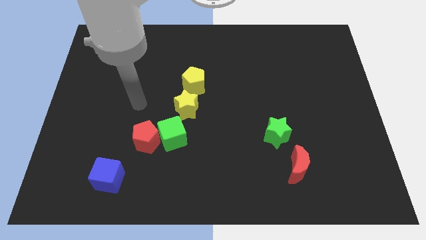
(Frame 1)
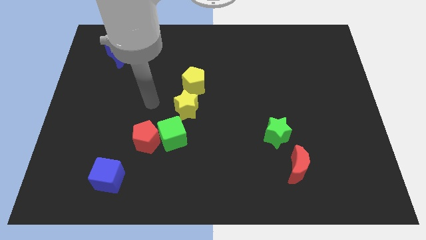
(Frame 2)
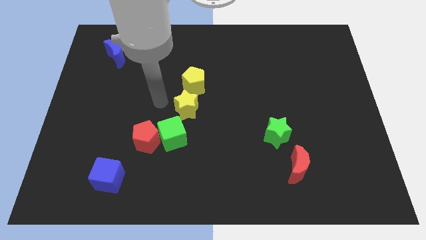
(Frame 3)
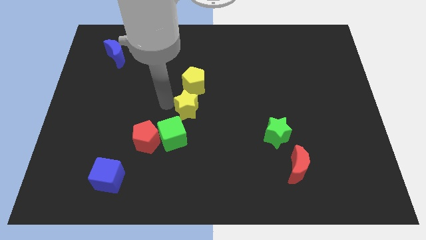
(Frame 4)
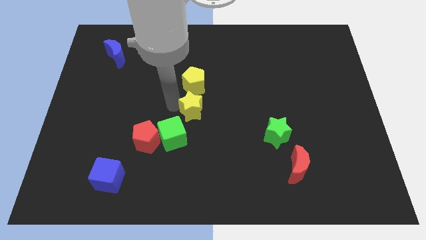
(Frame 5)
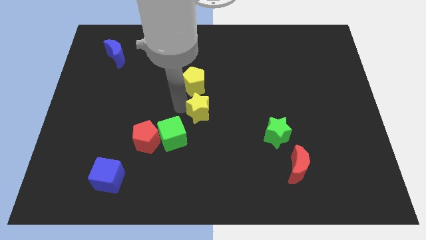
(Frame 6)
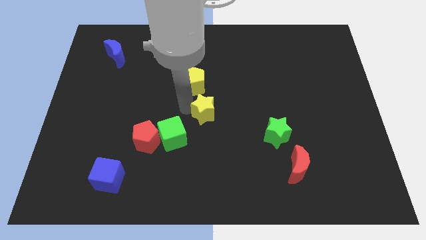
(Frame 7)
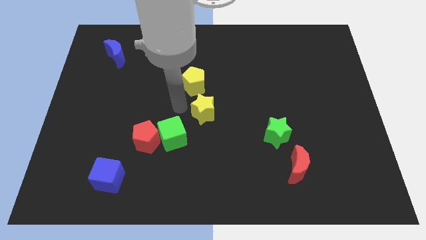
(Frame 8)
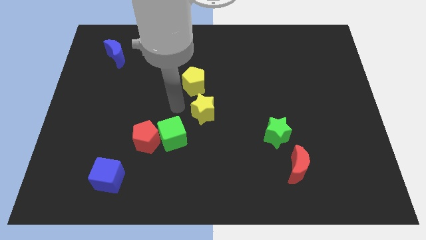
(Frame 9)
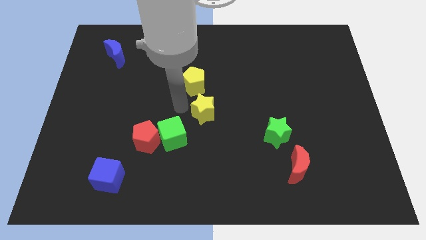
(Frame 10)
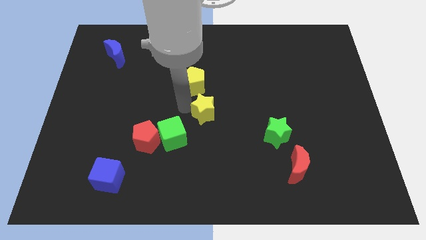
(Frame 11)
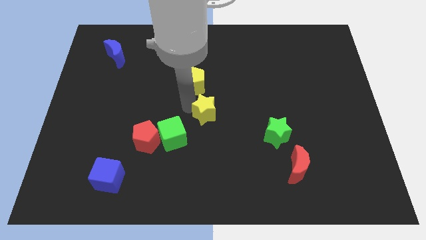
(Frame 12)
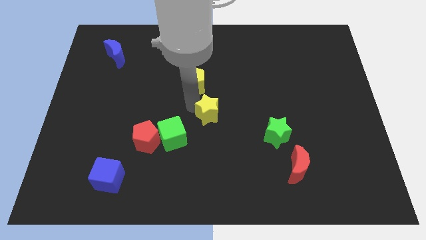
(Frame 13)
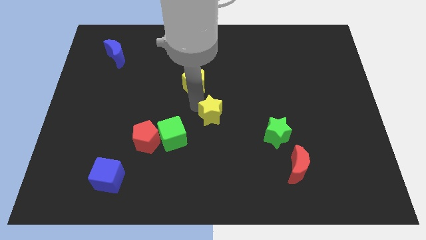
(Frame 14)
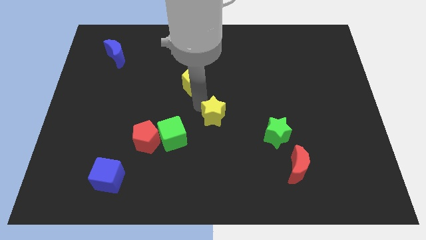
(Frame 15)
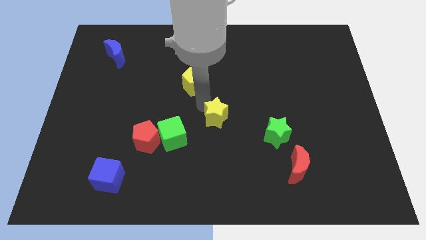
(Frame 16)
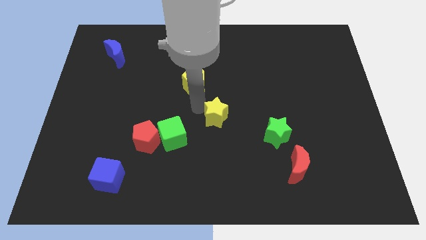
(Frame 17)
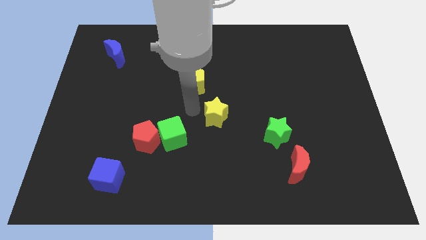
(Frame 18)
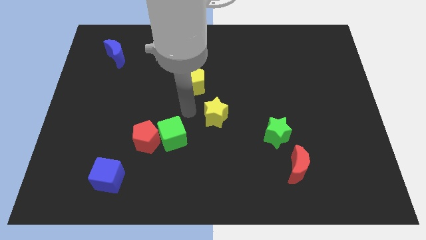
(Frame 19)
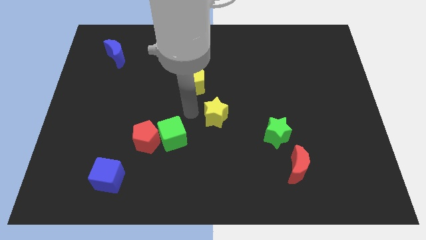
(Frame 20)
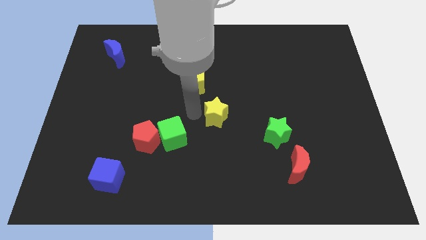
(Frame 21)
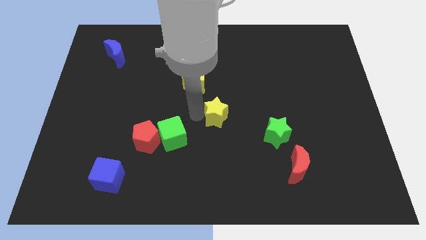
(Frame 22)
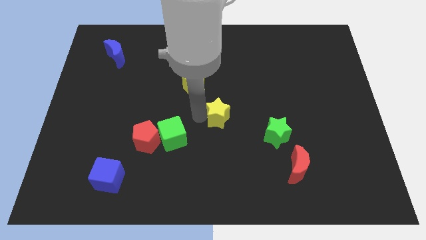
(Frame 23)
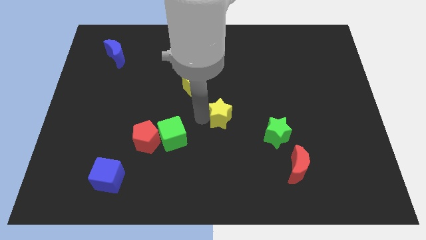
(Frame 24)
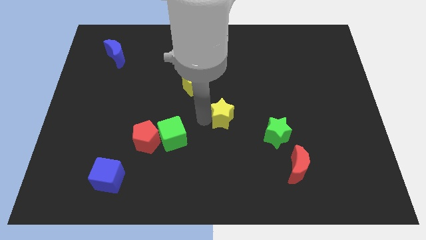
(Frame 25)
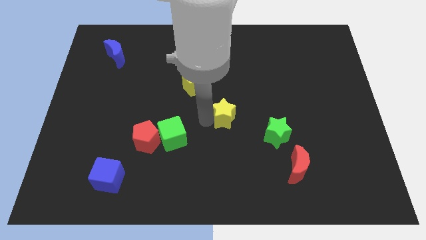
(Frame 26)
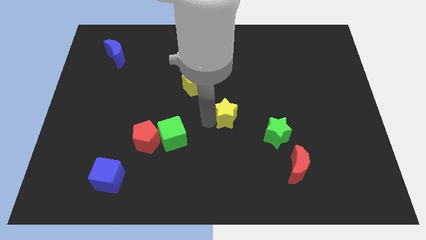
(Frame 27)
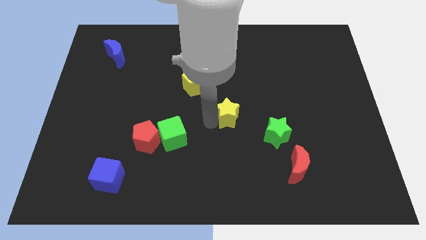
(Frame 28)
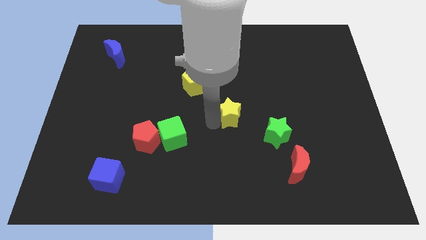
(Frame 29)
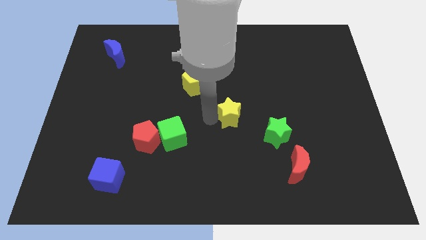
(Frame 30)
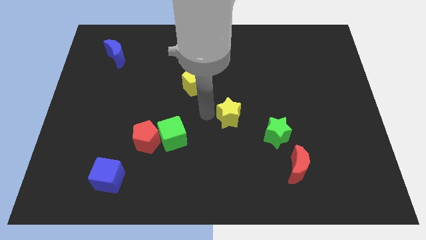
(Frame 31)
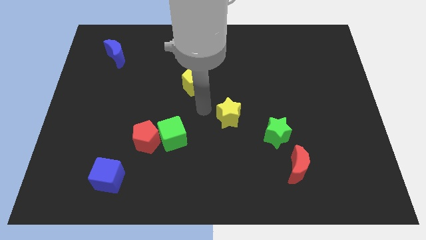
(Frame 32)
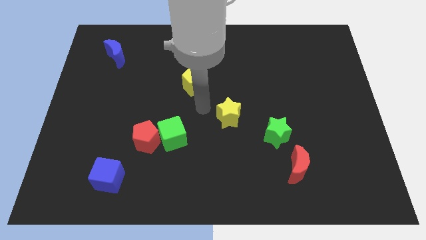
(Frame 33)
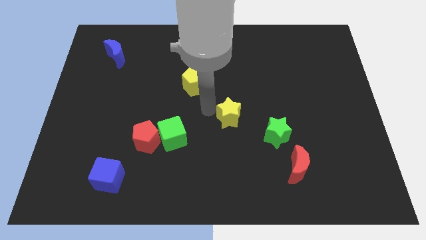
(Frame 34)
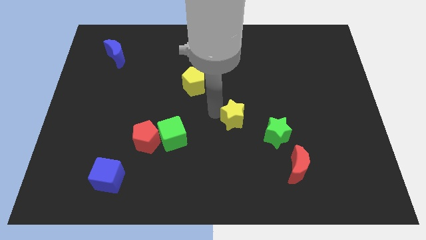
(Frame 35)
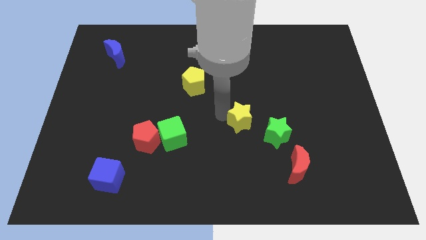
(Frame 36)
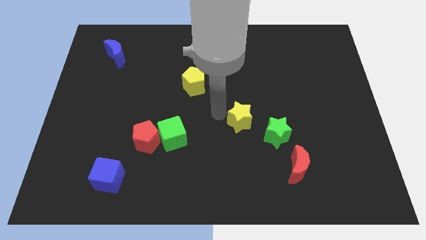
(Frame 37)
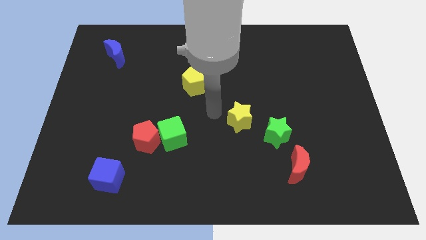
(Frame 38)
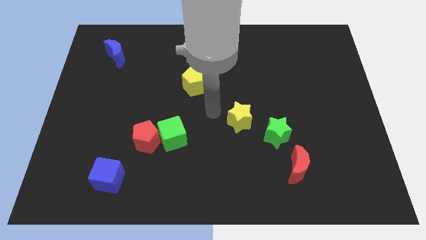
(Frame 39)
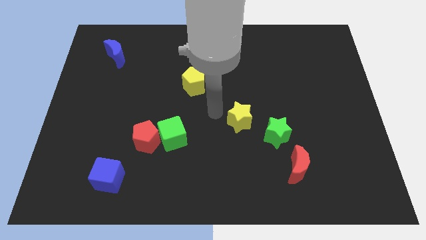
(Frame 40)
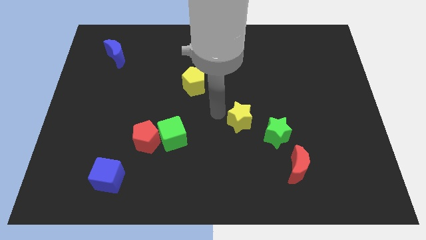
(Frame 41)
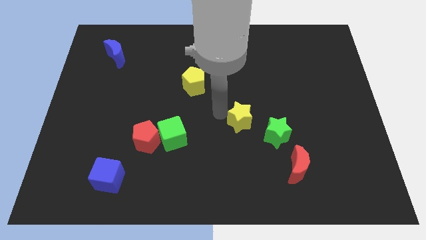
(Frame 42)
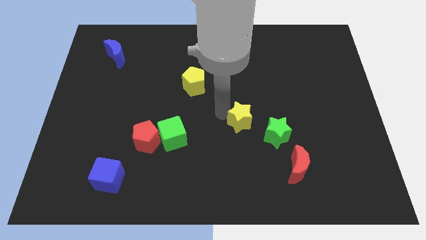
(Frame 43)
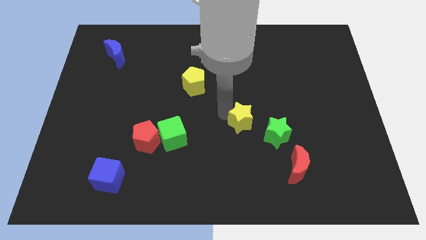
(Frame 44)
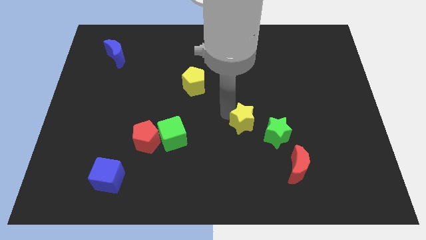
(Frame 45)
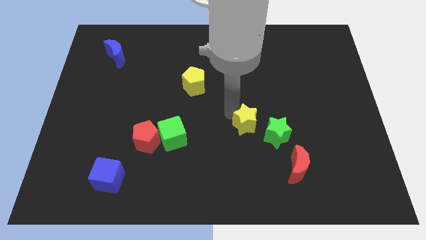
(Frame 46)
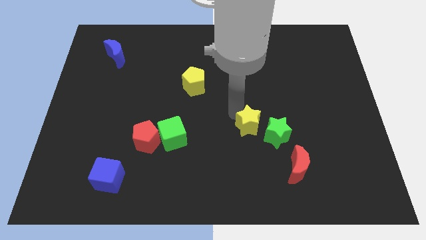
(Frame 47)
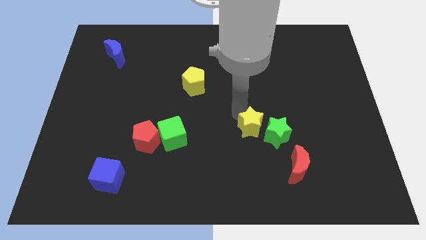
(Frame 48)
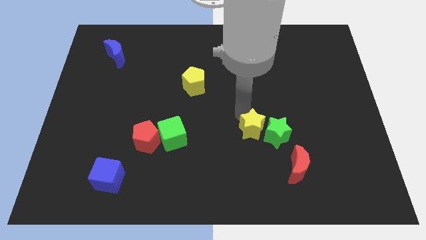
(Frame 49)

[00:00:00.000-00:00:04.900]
slide the yellow star close to the green star

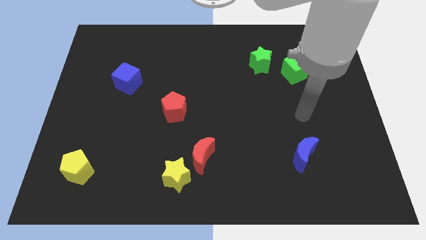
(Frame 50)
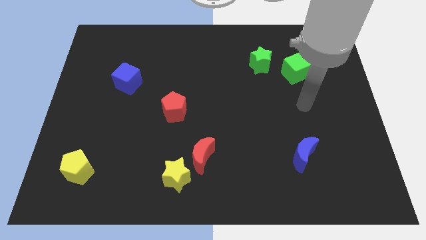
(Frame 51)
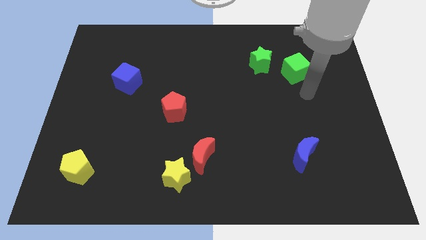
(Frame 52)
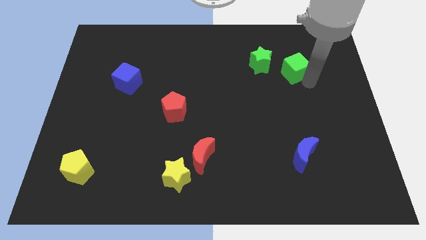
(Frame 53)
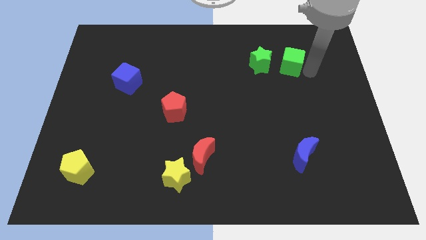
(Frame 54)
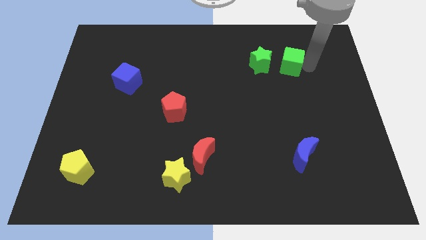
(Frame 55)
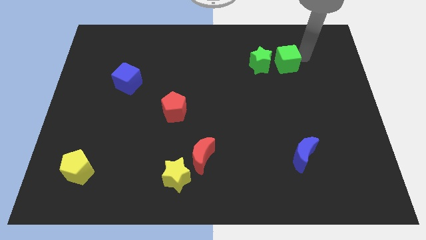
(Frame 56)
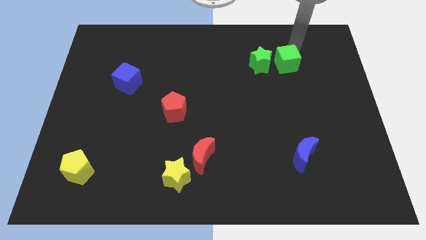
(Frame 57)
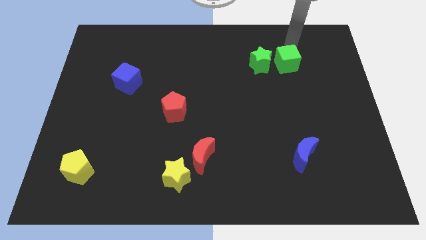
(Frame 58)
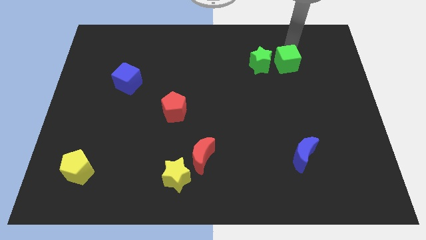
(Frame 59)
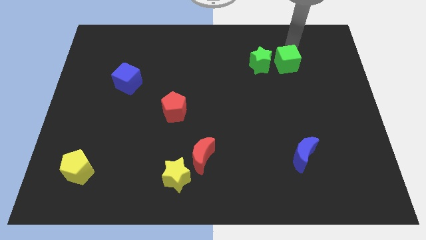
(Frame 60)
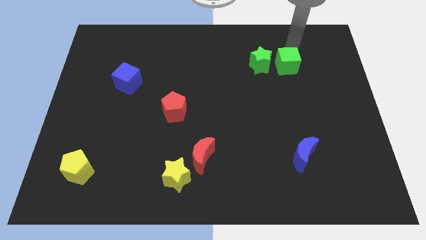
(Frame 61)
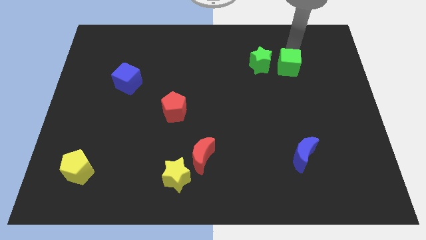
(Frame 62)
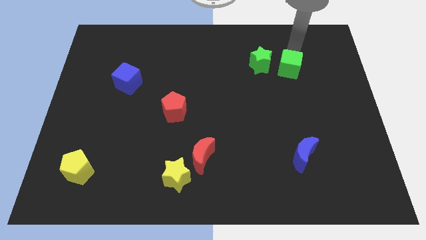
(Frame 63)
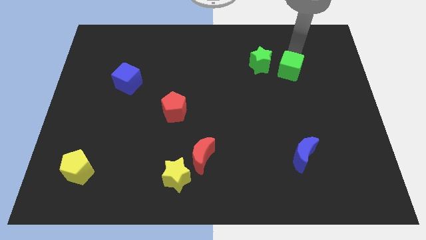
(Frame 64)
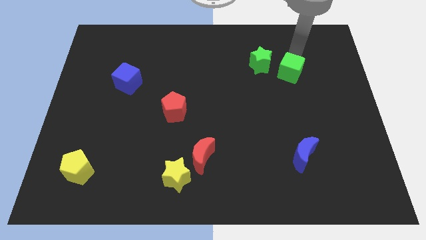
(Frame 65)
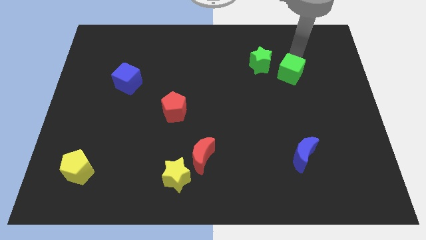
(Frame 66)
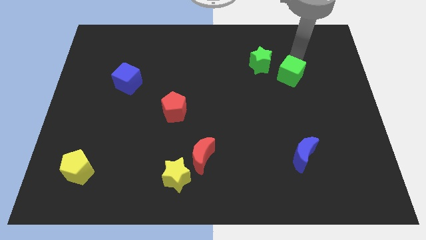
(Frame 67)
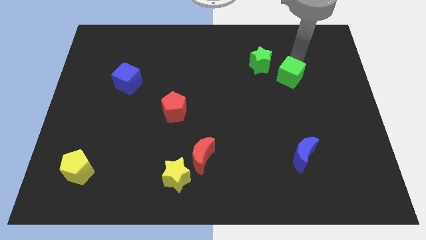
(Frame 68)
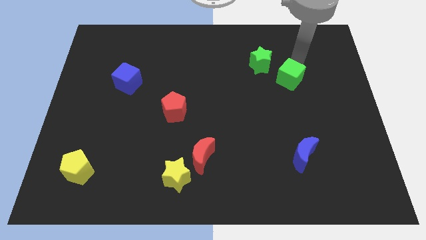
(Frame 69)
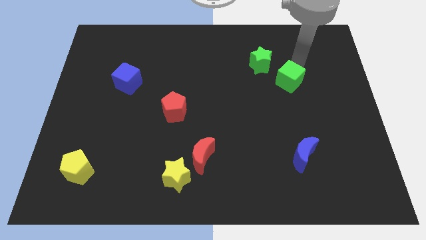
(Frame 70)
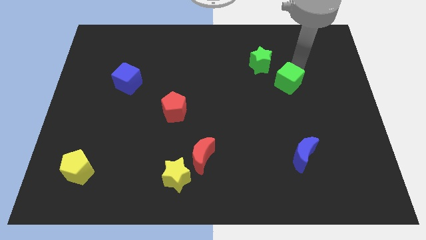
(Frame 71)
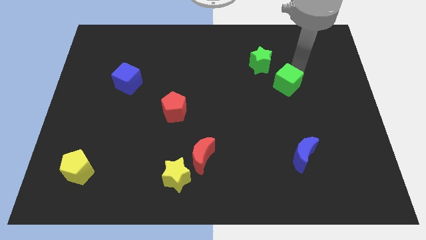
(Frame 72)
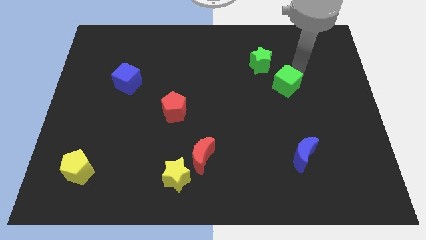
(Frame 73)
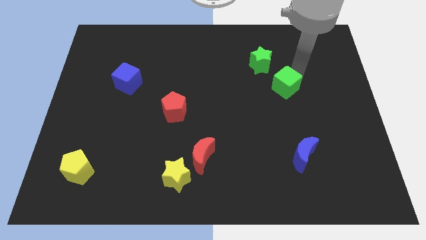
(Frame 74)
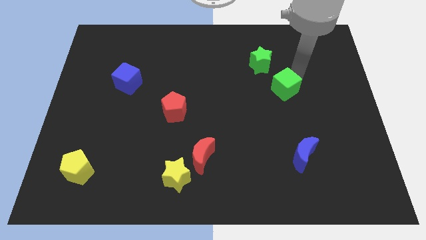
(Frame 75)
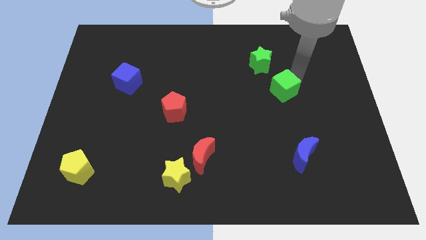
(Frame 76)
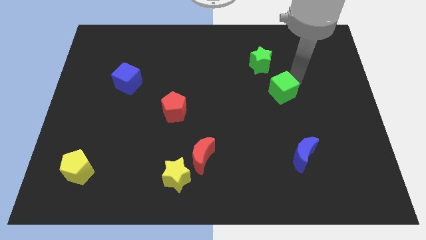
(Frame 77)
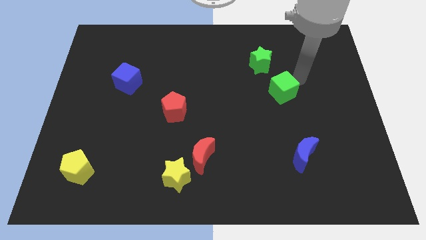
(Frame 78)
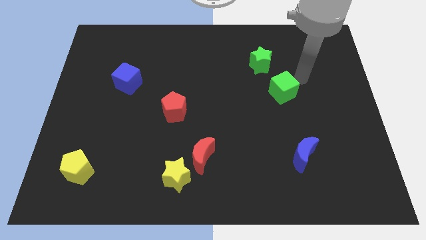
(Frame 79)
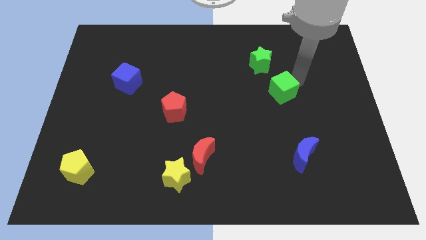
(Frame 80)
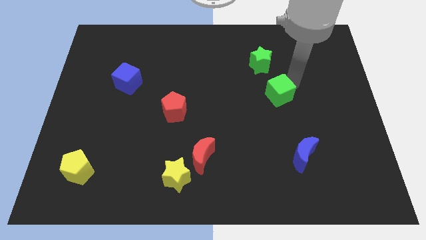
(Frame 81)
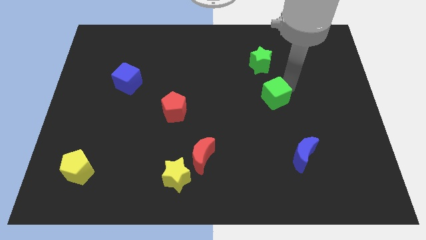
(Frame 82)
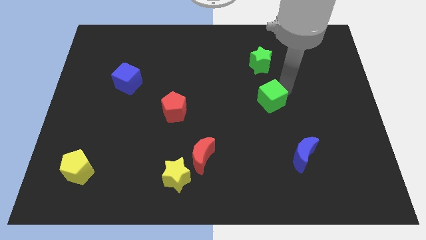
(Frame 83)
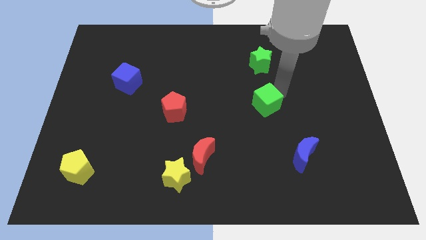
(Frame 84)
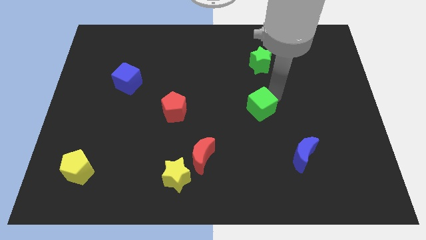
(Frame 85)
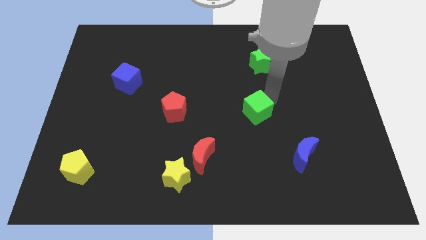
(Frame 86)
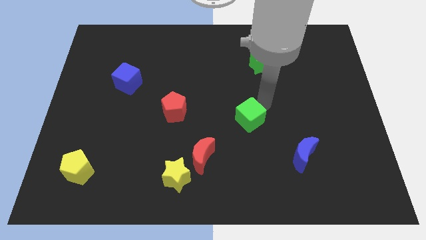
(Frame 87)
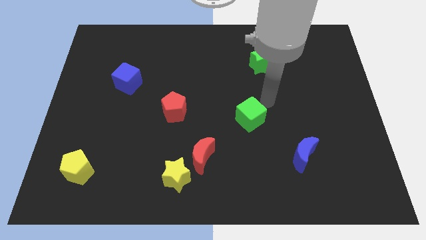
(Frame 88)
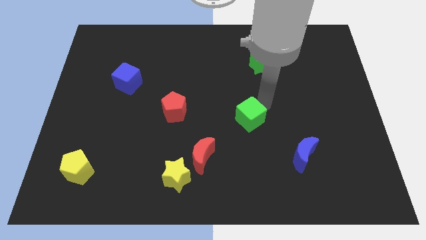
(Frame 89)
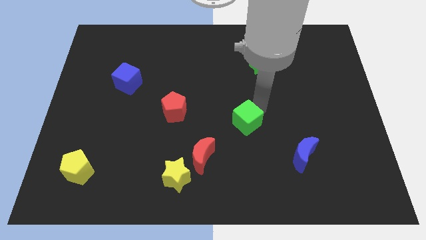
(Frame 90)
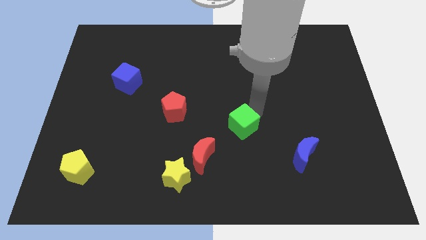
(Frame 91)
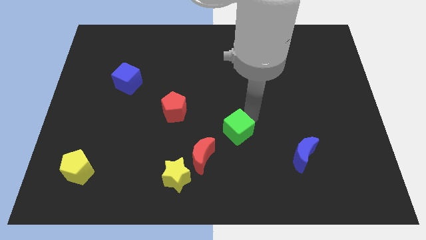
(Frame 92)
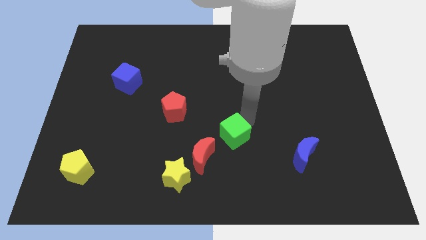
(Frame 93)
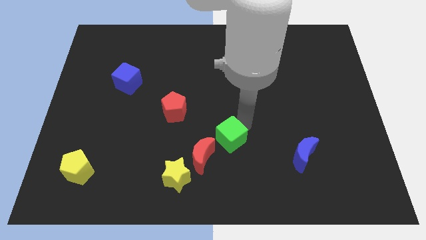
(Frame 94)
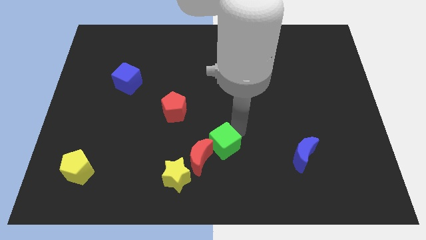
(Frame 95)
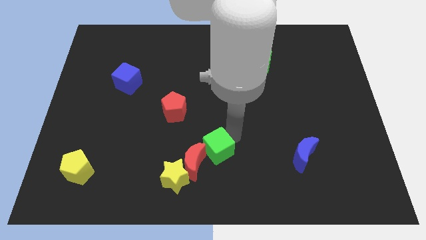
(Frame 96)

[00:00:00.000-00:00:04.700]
put the green cube close to the red moon
